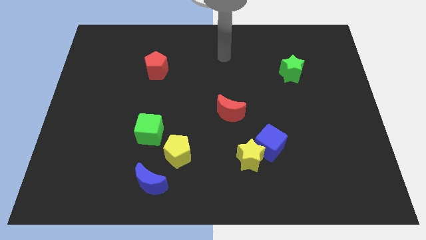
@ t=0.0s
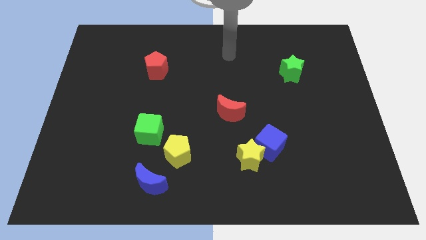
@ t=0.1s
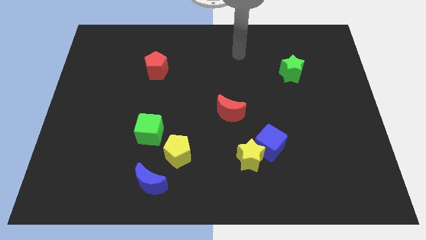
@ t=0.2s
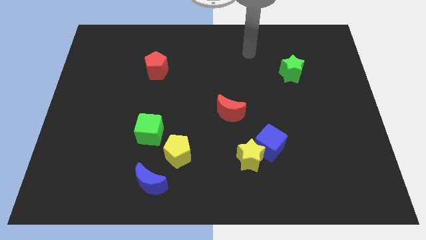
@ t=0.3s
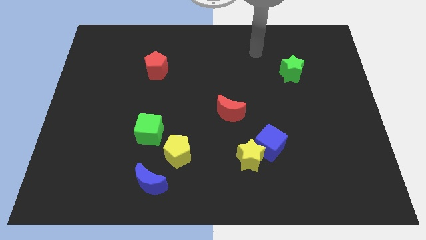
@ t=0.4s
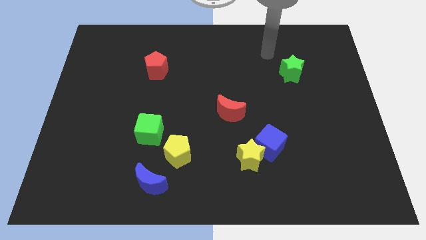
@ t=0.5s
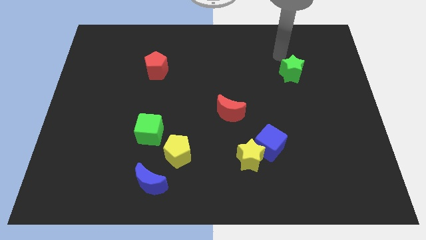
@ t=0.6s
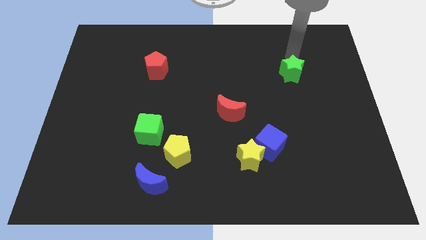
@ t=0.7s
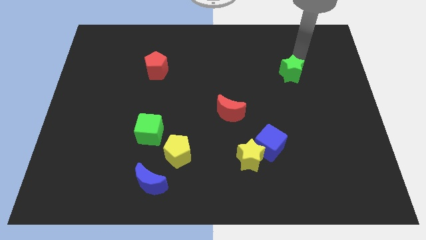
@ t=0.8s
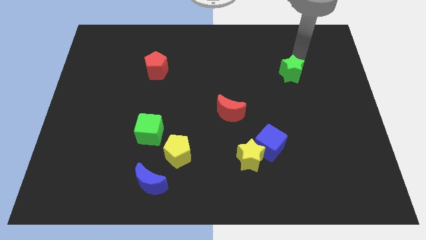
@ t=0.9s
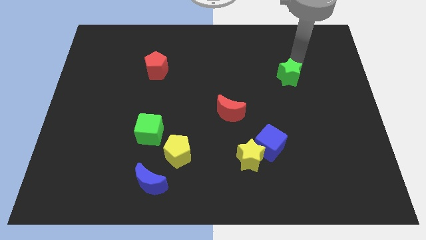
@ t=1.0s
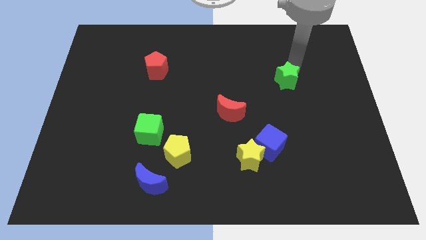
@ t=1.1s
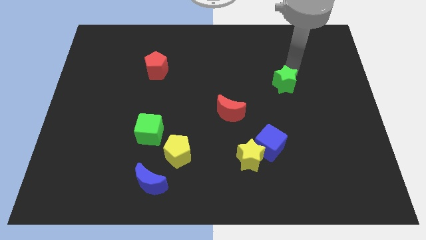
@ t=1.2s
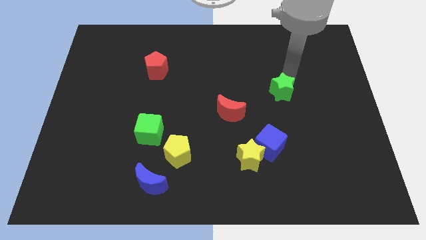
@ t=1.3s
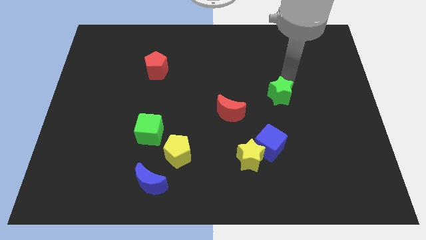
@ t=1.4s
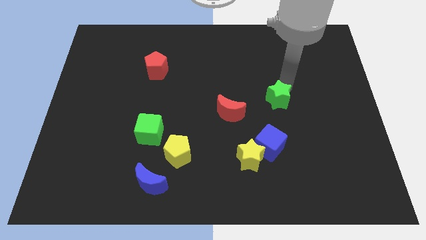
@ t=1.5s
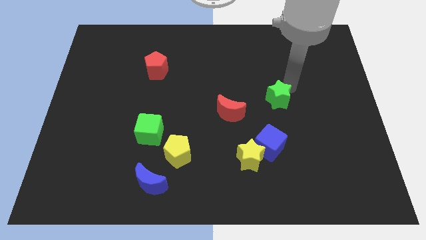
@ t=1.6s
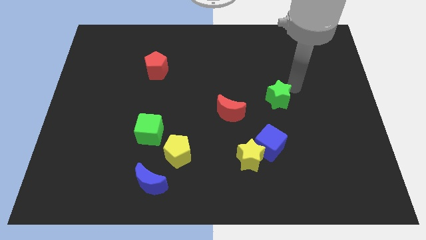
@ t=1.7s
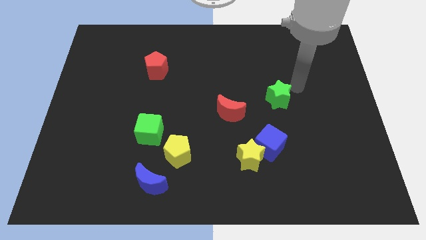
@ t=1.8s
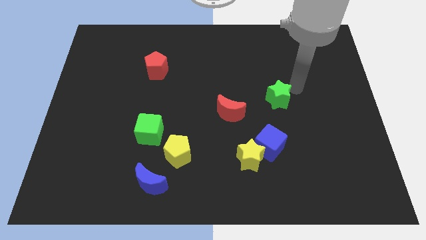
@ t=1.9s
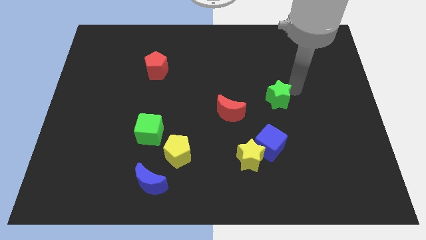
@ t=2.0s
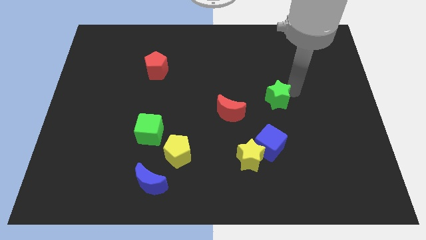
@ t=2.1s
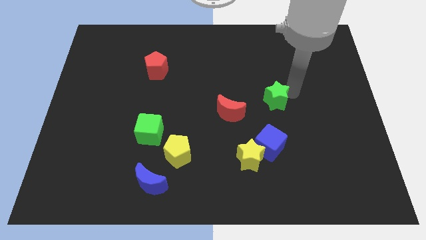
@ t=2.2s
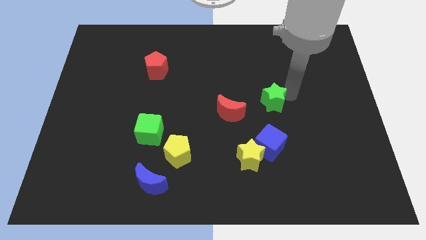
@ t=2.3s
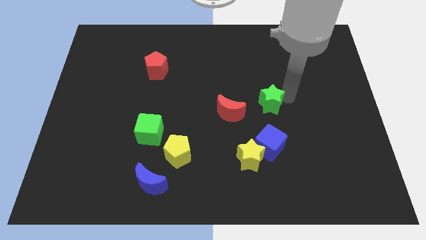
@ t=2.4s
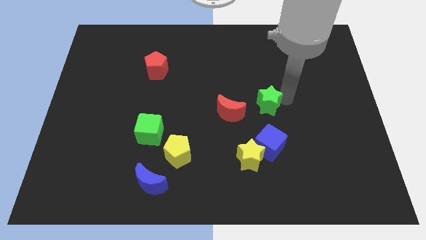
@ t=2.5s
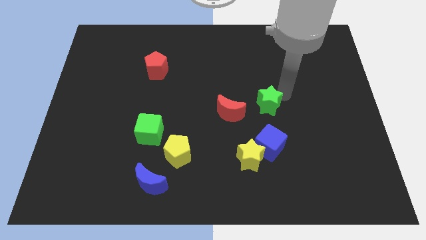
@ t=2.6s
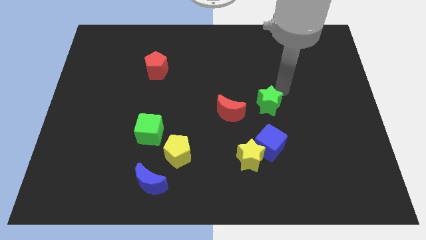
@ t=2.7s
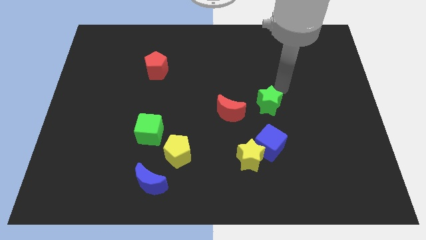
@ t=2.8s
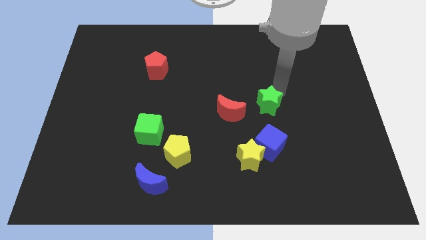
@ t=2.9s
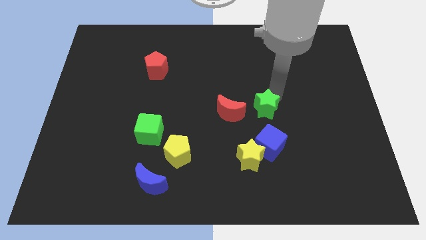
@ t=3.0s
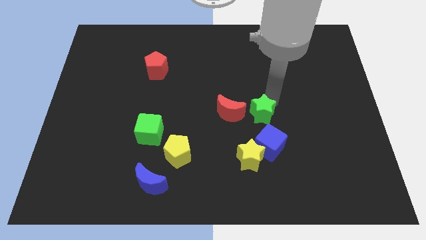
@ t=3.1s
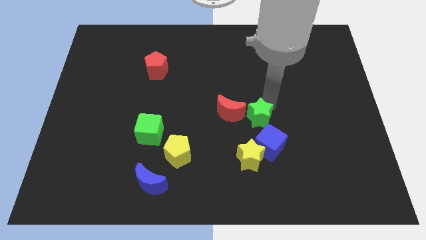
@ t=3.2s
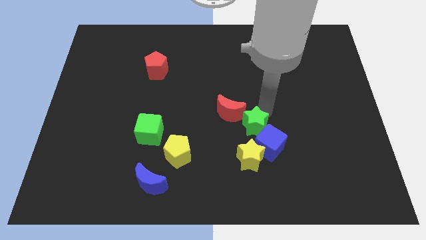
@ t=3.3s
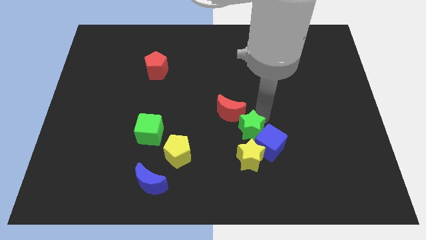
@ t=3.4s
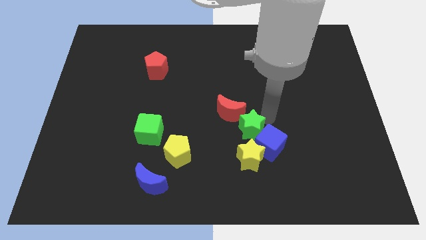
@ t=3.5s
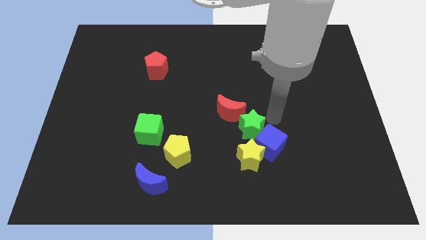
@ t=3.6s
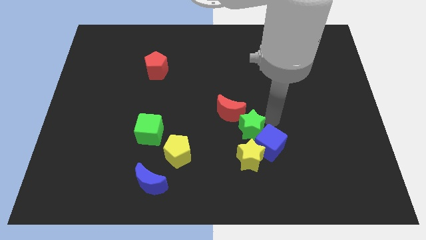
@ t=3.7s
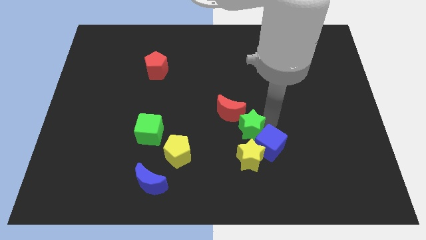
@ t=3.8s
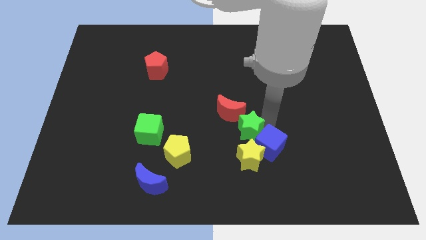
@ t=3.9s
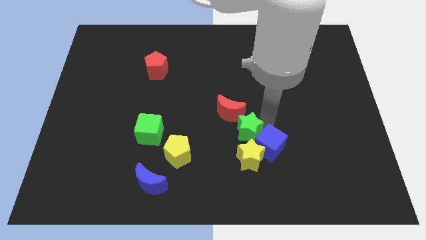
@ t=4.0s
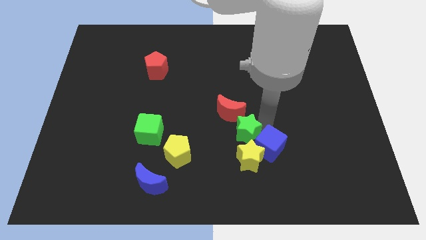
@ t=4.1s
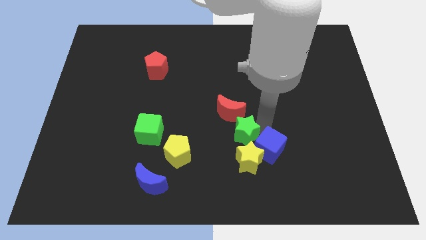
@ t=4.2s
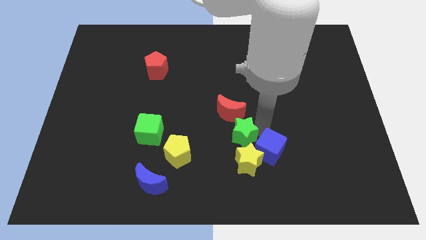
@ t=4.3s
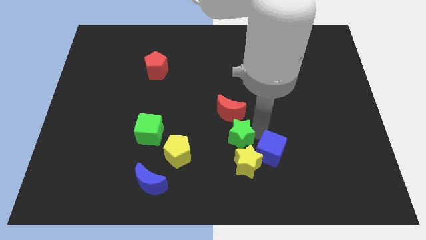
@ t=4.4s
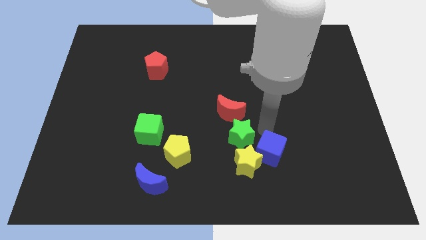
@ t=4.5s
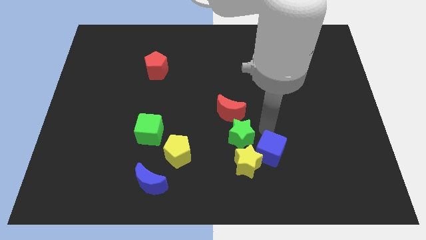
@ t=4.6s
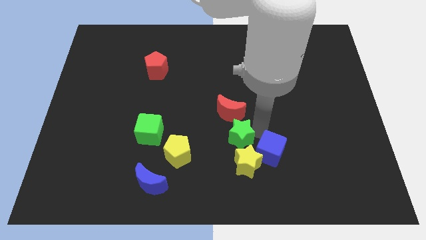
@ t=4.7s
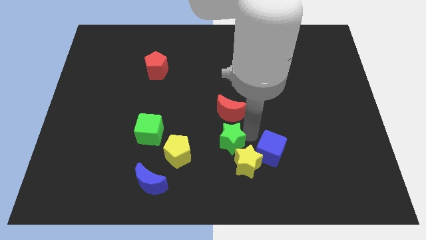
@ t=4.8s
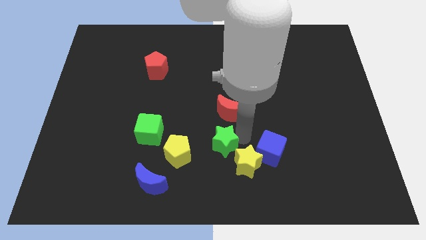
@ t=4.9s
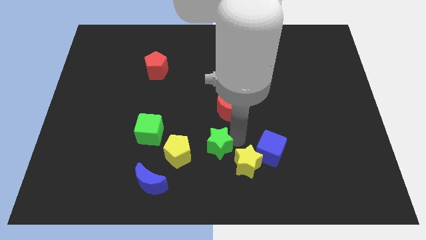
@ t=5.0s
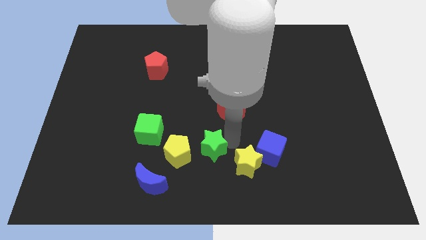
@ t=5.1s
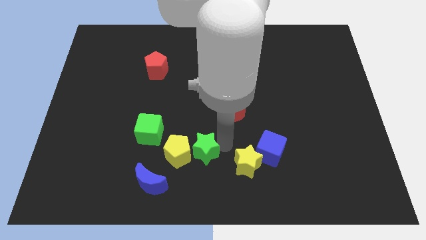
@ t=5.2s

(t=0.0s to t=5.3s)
push the green star to the yellow pentagon

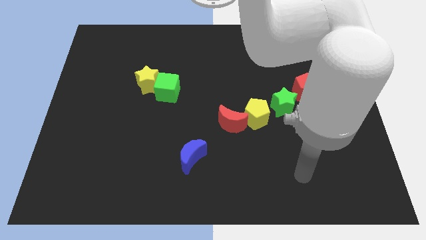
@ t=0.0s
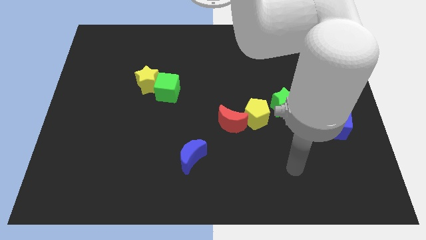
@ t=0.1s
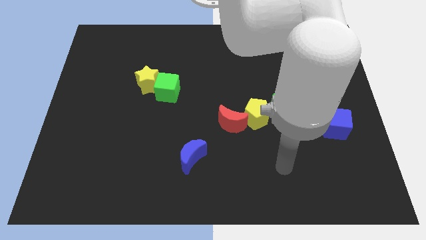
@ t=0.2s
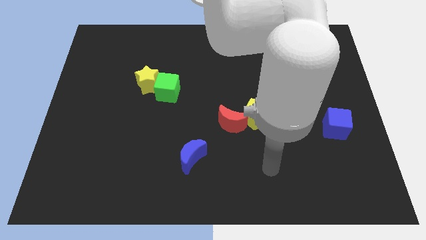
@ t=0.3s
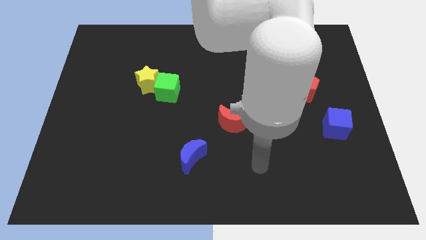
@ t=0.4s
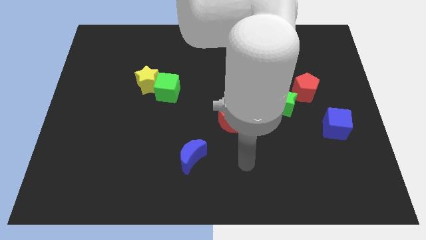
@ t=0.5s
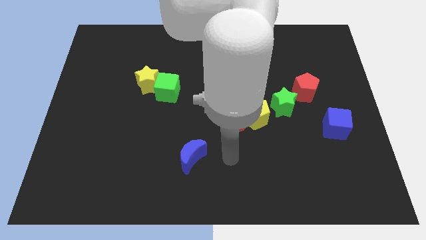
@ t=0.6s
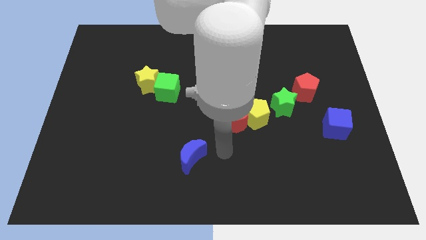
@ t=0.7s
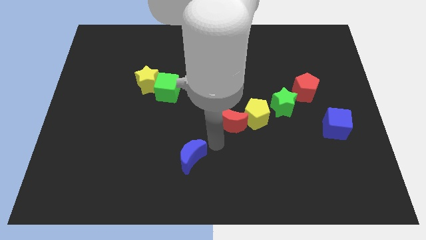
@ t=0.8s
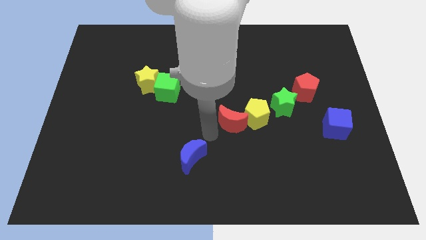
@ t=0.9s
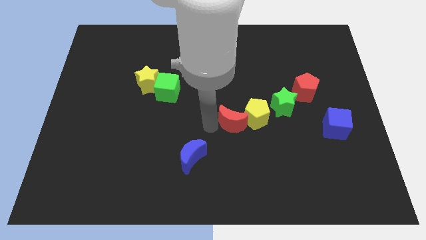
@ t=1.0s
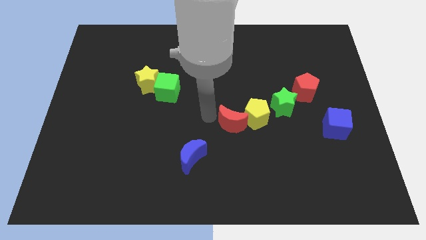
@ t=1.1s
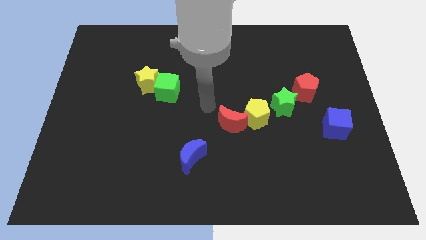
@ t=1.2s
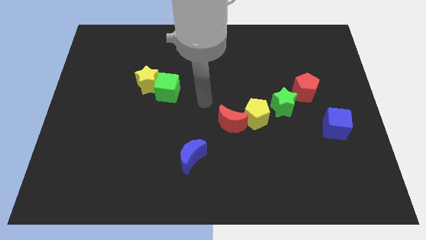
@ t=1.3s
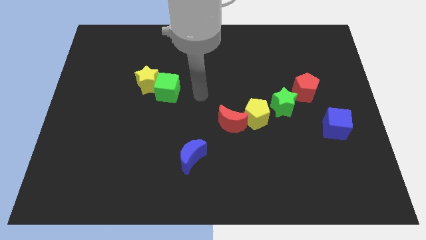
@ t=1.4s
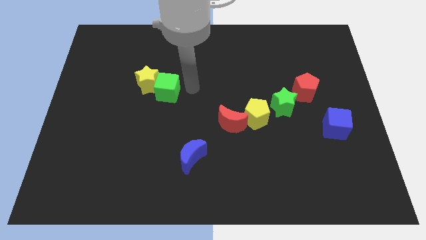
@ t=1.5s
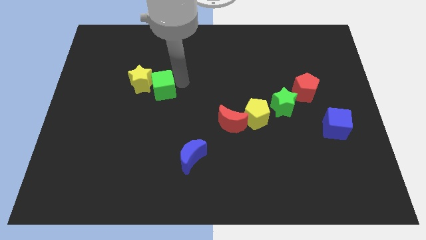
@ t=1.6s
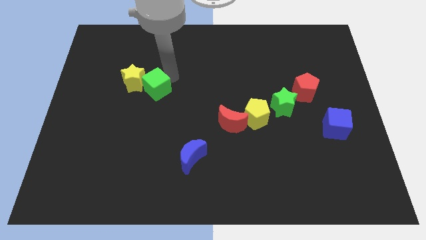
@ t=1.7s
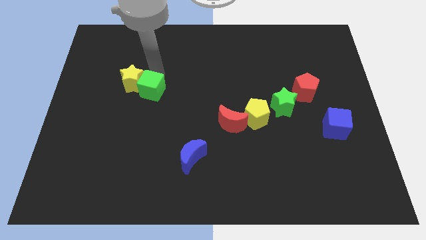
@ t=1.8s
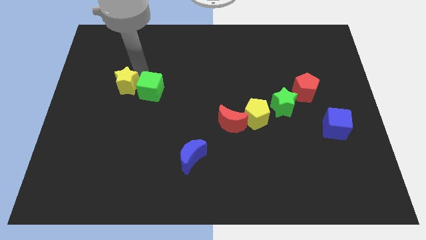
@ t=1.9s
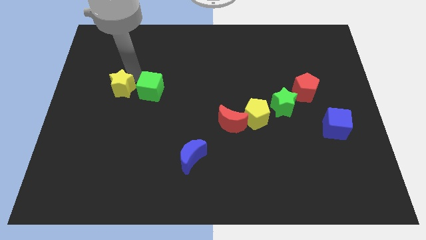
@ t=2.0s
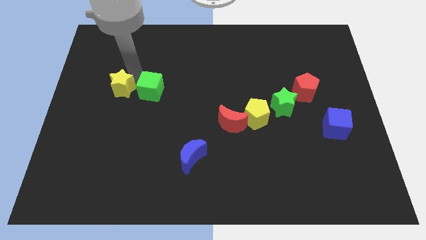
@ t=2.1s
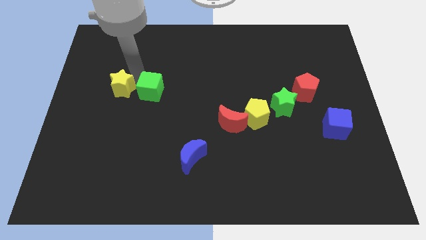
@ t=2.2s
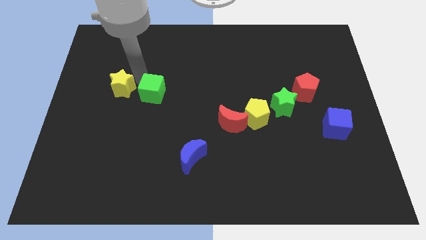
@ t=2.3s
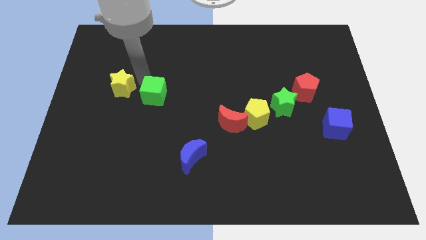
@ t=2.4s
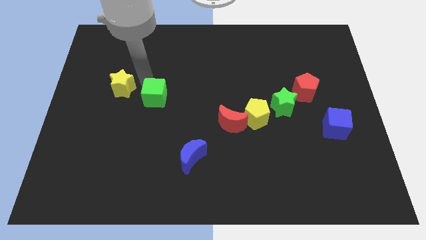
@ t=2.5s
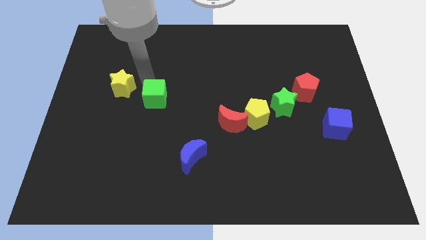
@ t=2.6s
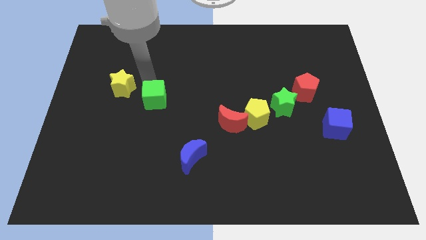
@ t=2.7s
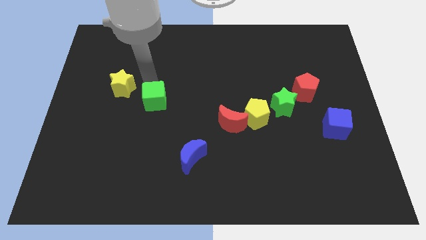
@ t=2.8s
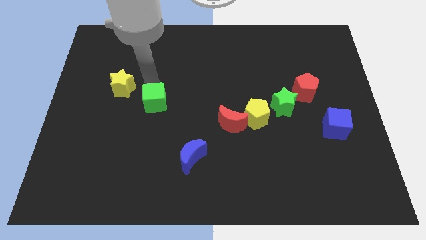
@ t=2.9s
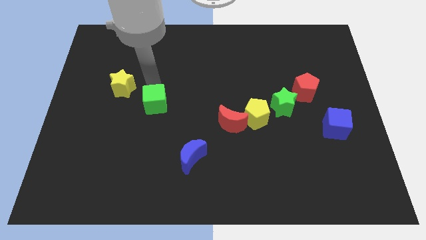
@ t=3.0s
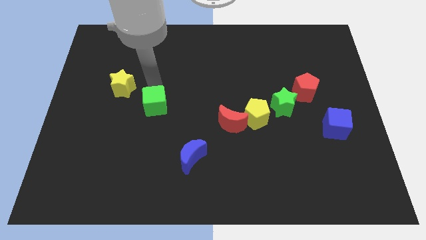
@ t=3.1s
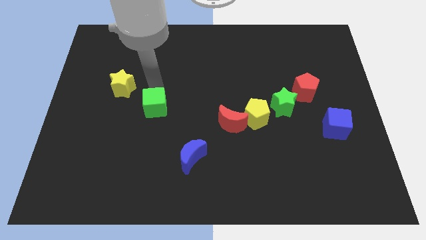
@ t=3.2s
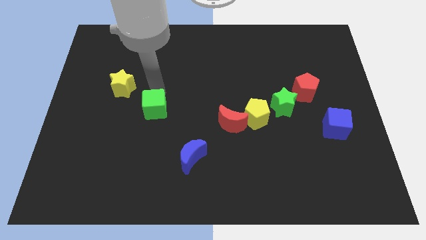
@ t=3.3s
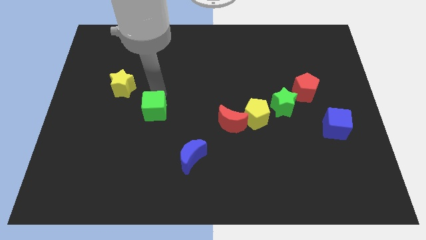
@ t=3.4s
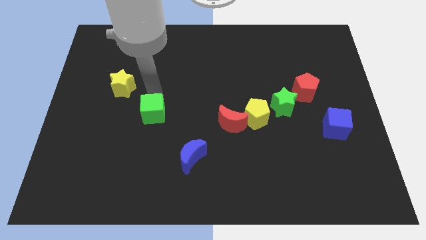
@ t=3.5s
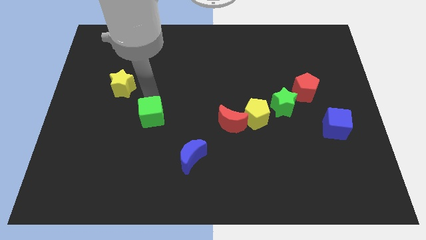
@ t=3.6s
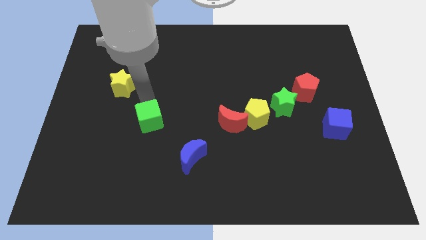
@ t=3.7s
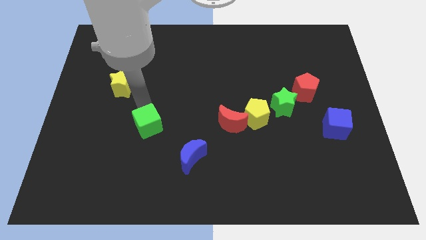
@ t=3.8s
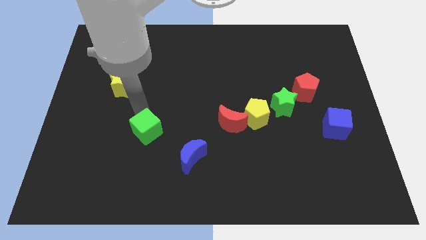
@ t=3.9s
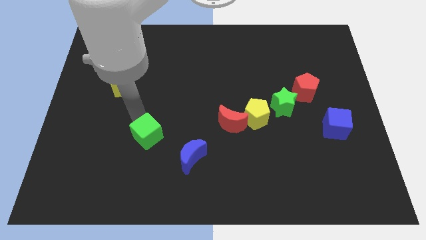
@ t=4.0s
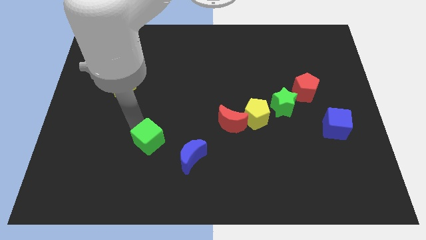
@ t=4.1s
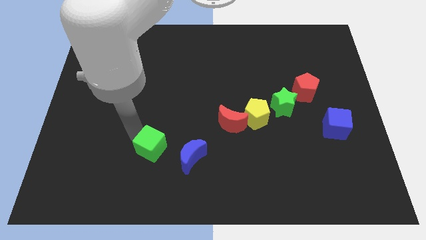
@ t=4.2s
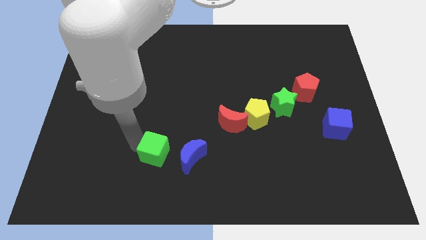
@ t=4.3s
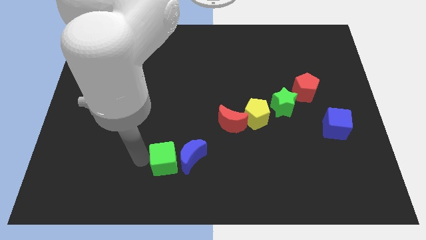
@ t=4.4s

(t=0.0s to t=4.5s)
put the green cube close to the blue moon
